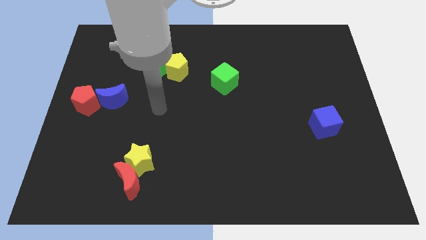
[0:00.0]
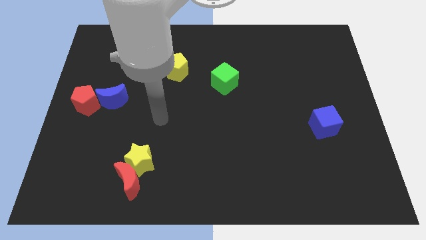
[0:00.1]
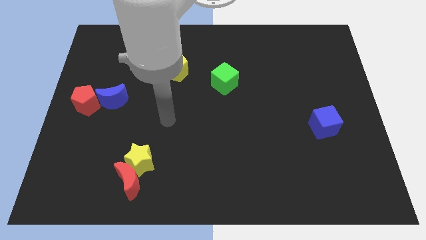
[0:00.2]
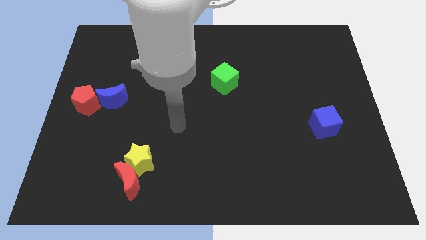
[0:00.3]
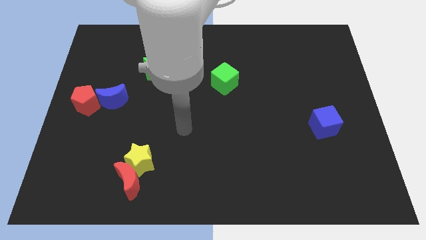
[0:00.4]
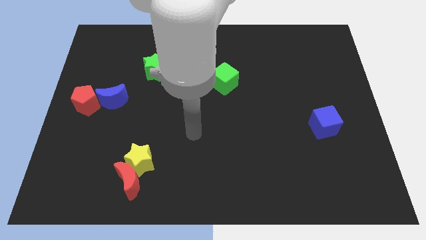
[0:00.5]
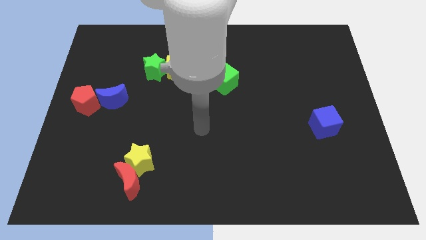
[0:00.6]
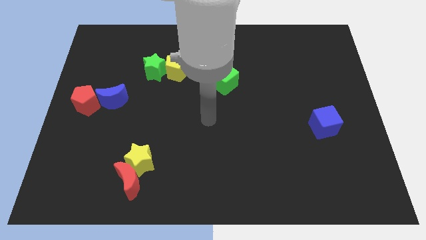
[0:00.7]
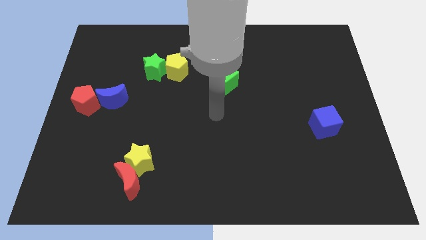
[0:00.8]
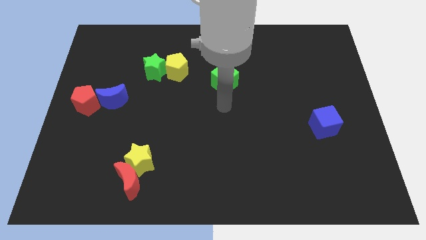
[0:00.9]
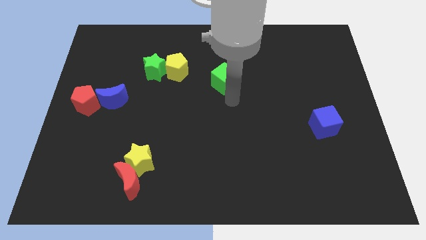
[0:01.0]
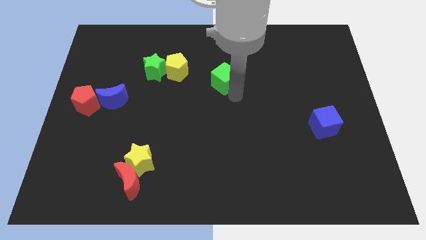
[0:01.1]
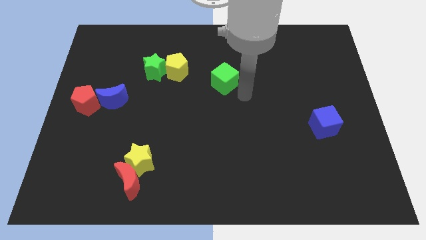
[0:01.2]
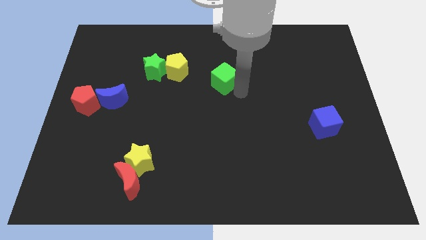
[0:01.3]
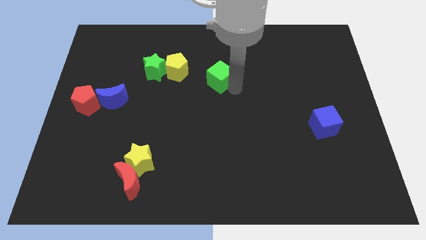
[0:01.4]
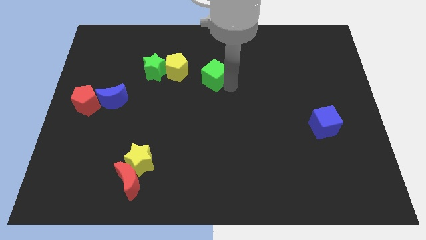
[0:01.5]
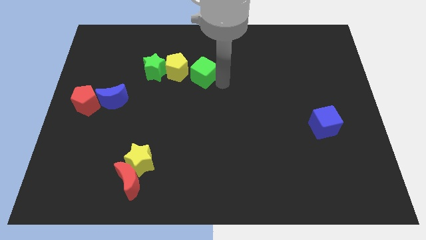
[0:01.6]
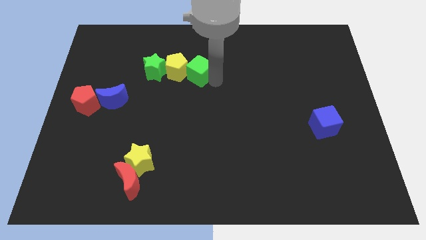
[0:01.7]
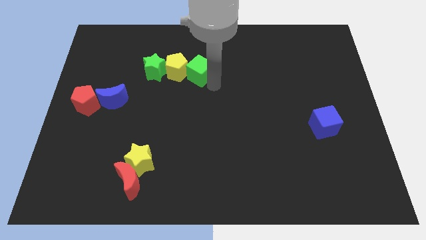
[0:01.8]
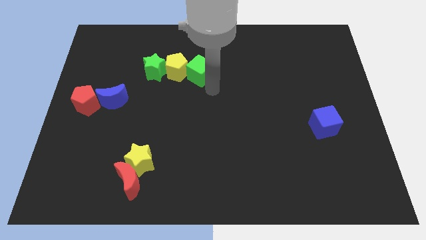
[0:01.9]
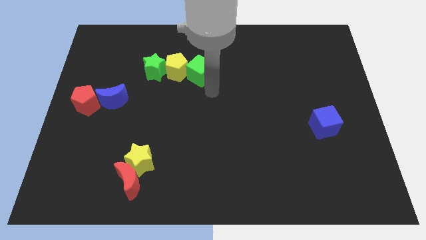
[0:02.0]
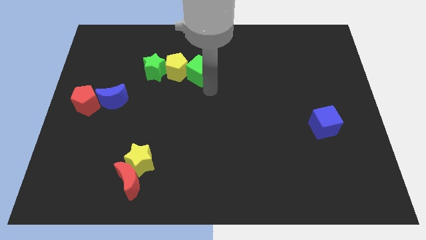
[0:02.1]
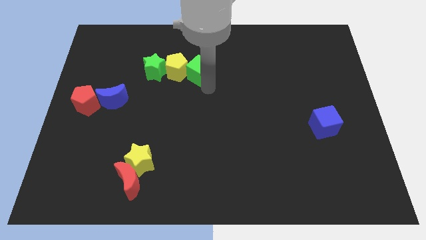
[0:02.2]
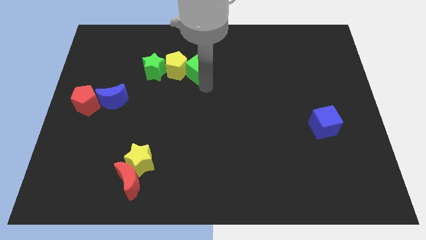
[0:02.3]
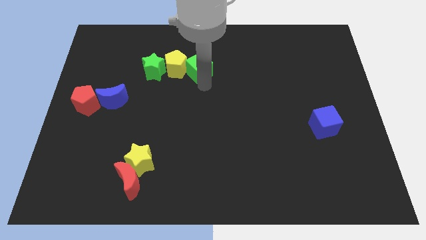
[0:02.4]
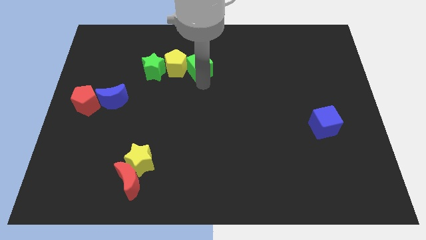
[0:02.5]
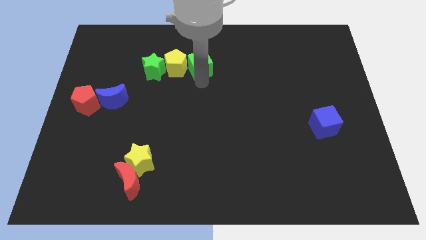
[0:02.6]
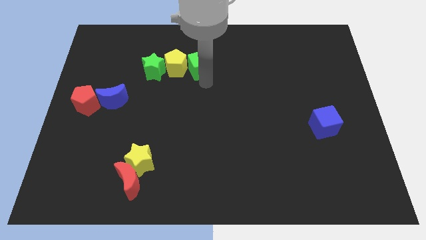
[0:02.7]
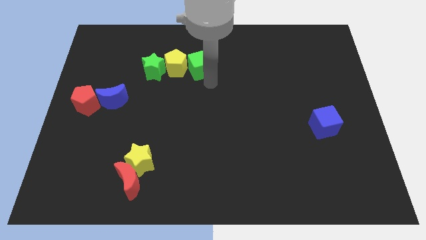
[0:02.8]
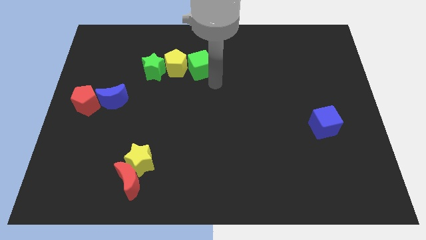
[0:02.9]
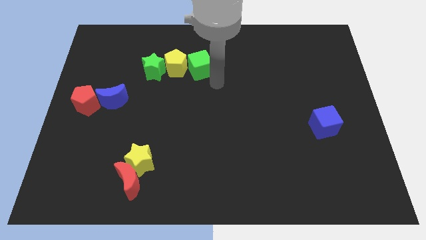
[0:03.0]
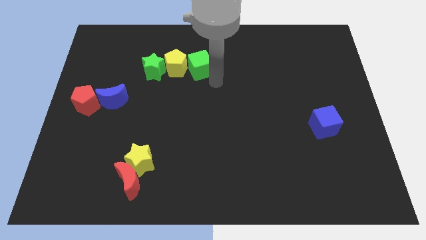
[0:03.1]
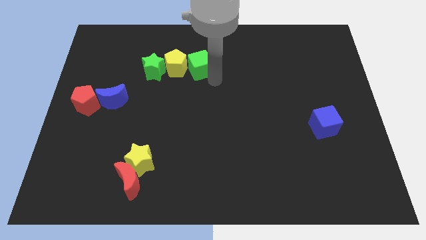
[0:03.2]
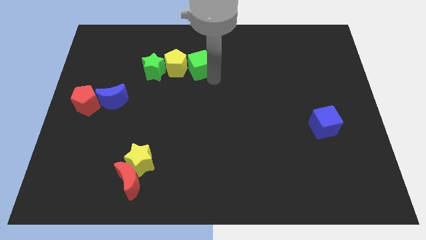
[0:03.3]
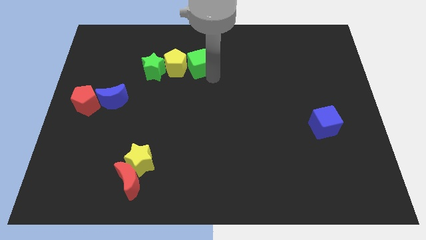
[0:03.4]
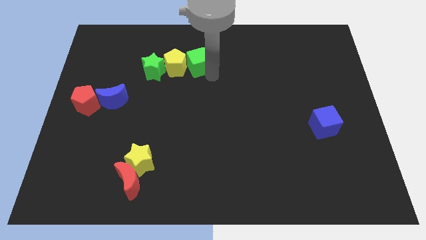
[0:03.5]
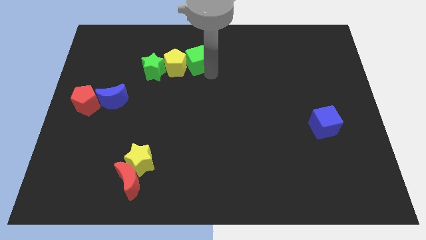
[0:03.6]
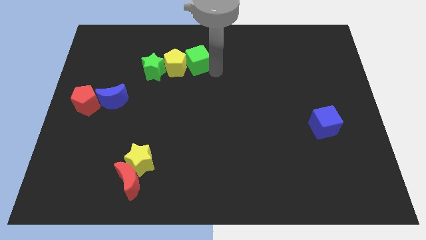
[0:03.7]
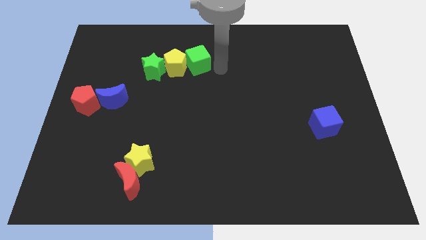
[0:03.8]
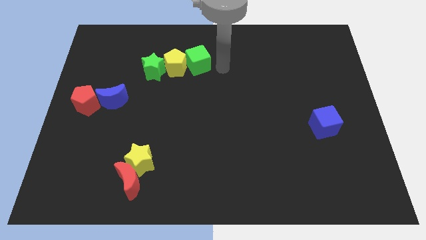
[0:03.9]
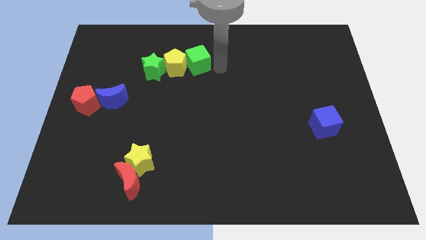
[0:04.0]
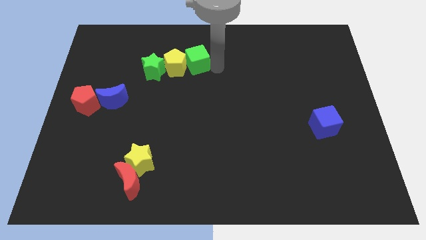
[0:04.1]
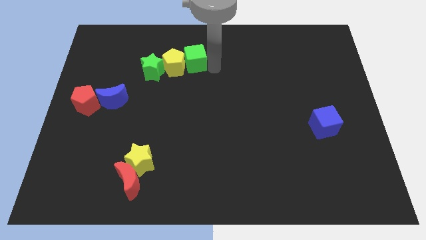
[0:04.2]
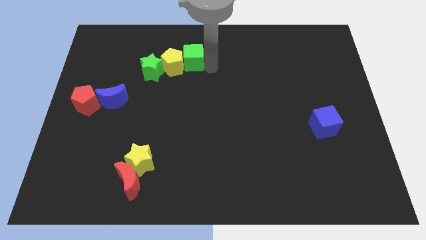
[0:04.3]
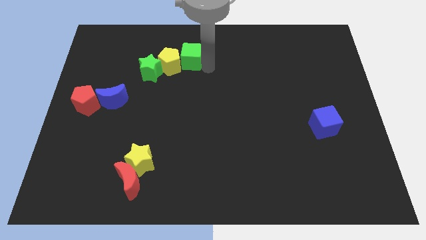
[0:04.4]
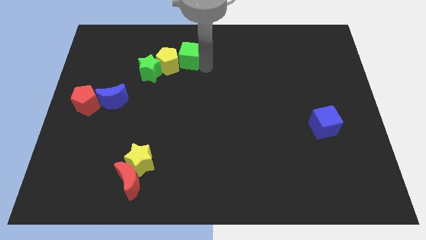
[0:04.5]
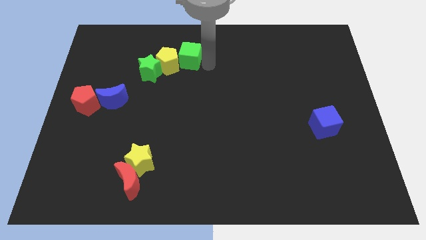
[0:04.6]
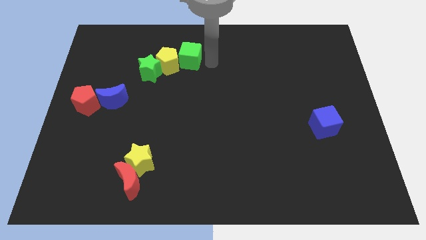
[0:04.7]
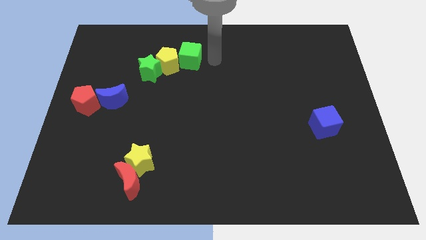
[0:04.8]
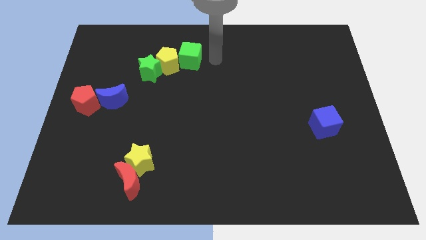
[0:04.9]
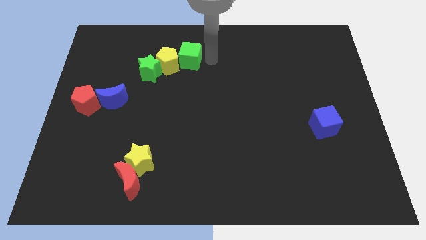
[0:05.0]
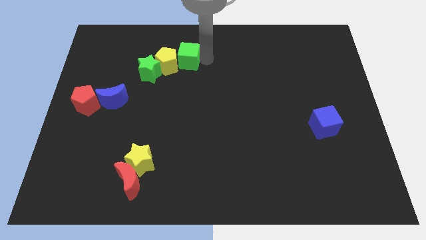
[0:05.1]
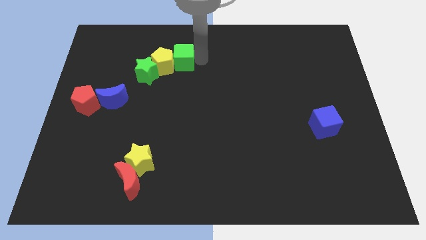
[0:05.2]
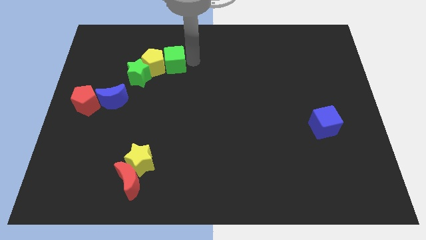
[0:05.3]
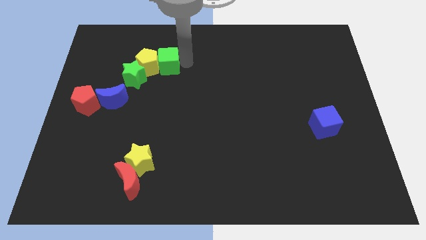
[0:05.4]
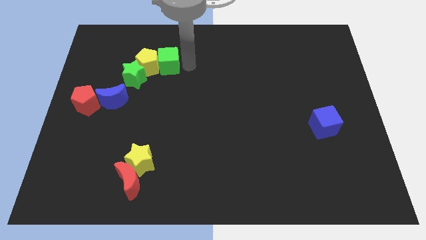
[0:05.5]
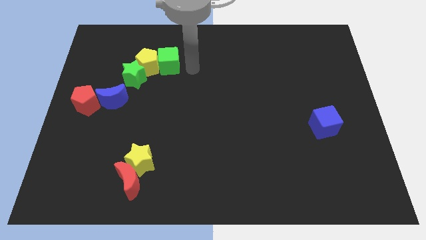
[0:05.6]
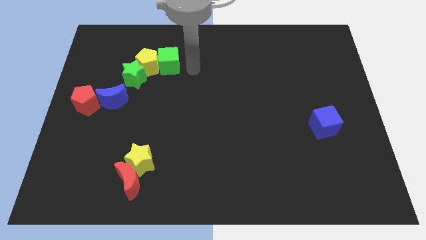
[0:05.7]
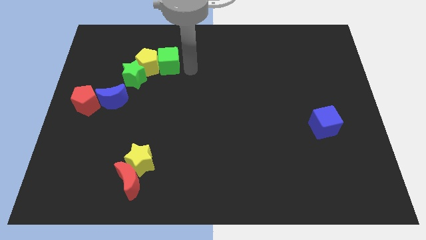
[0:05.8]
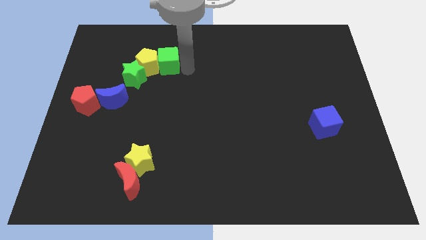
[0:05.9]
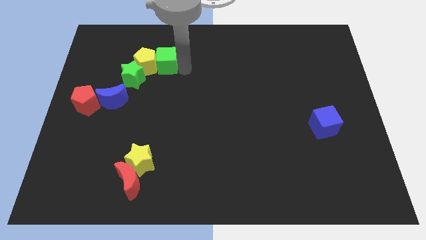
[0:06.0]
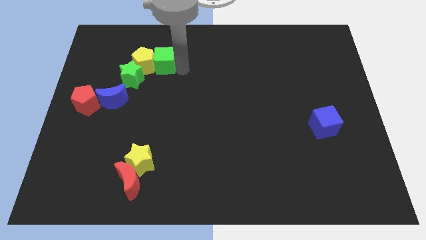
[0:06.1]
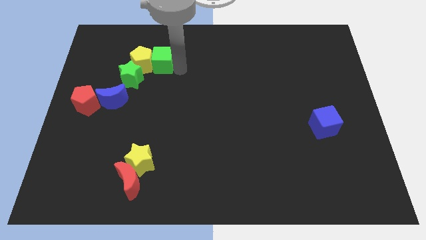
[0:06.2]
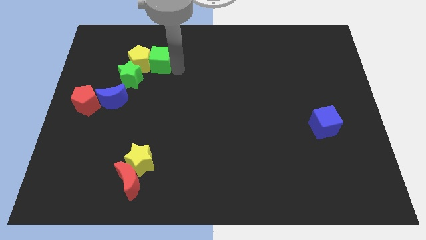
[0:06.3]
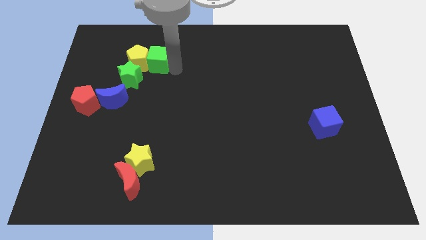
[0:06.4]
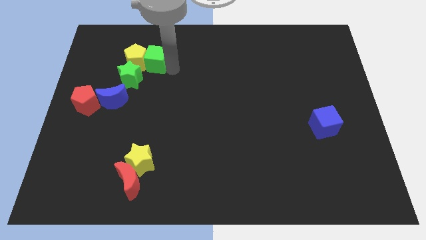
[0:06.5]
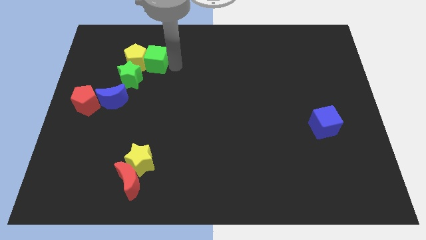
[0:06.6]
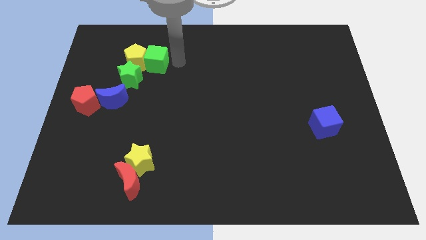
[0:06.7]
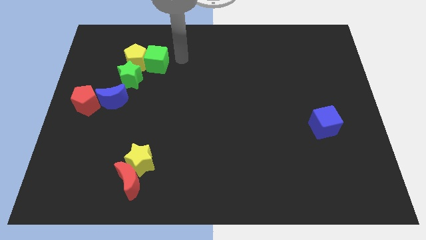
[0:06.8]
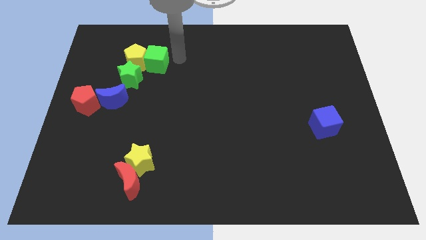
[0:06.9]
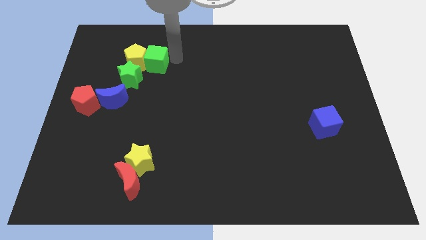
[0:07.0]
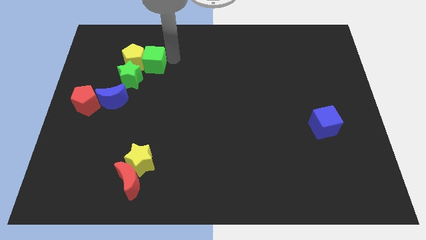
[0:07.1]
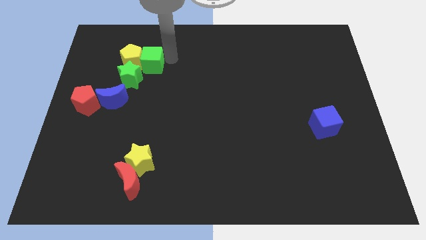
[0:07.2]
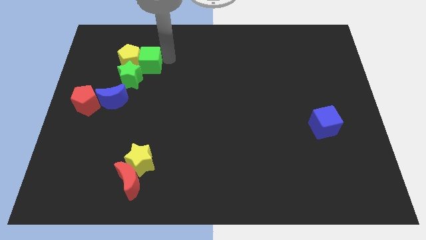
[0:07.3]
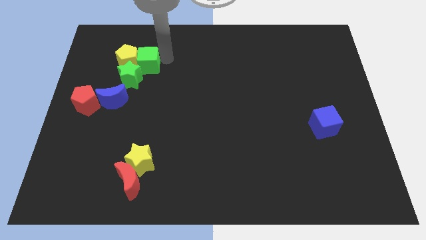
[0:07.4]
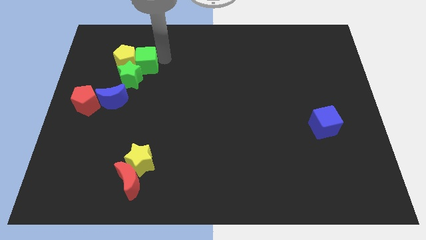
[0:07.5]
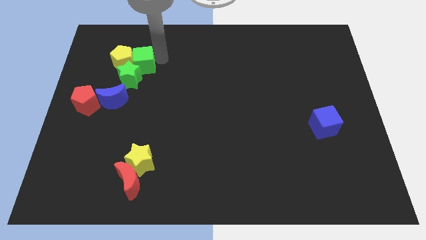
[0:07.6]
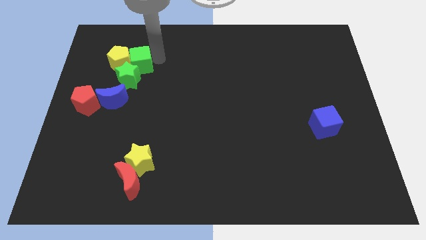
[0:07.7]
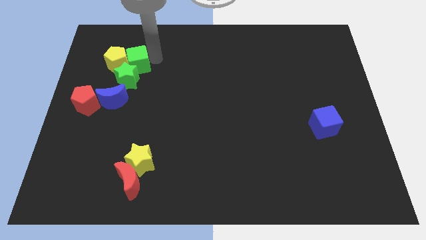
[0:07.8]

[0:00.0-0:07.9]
push the green cube to the top of the blue moon
